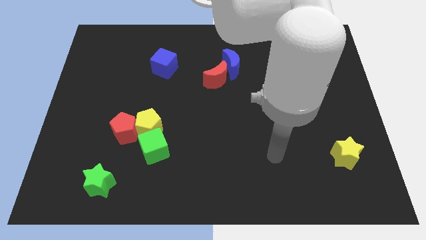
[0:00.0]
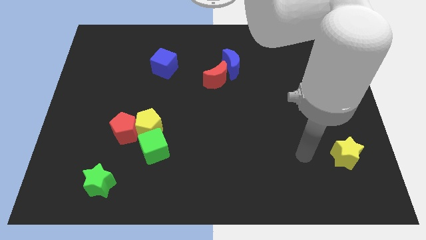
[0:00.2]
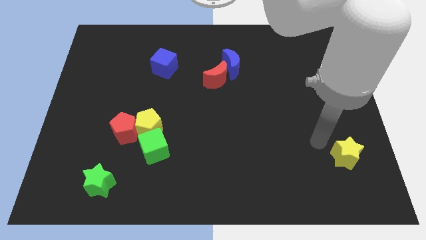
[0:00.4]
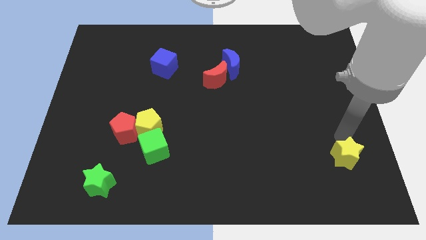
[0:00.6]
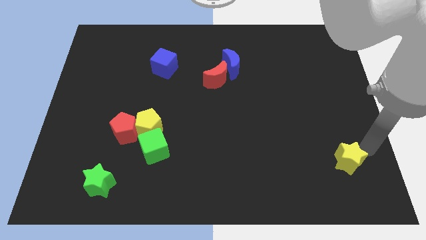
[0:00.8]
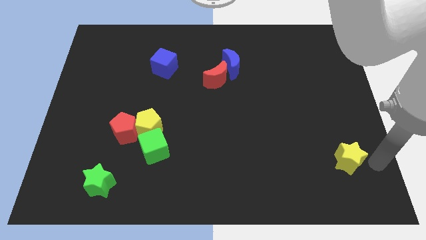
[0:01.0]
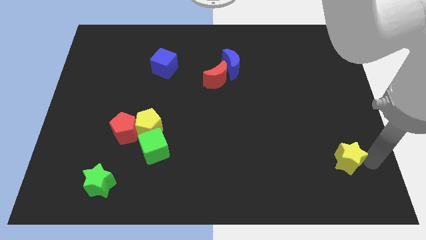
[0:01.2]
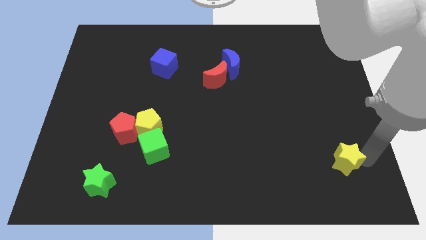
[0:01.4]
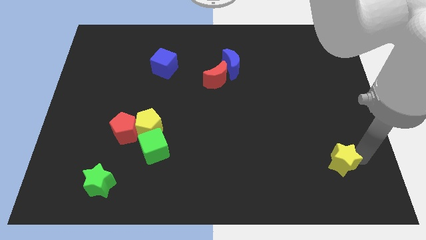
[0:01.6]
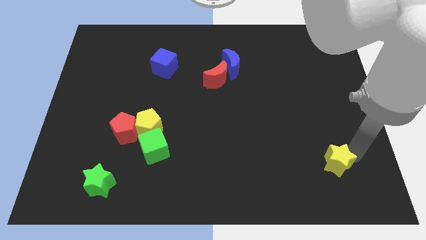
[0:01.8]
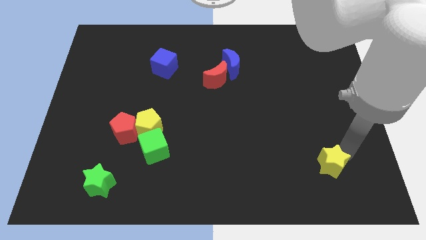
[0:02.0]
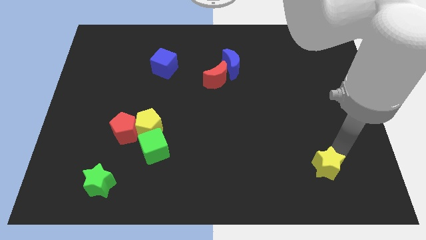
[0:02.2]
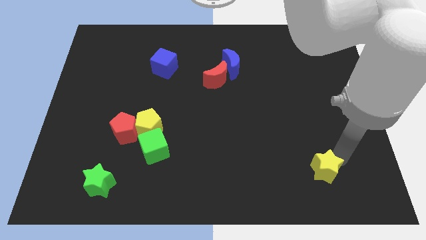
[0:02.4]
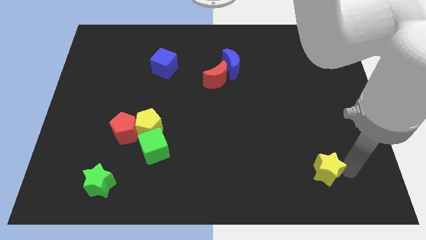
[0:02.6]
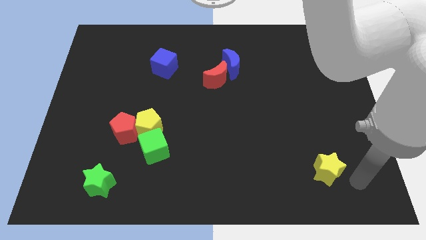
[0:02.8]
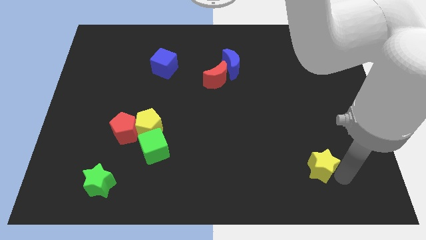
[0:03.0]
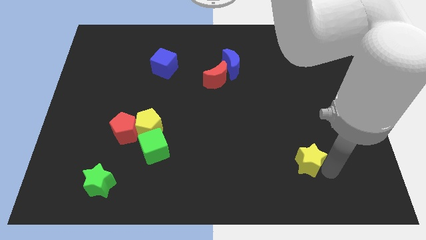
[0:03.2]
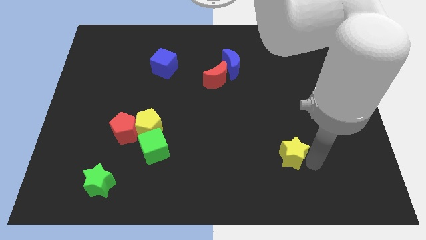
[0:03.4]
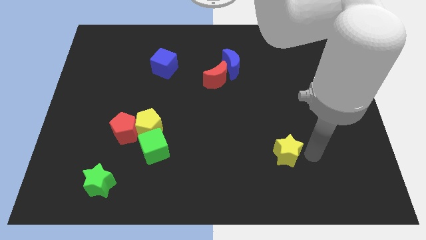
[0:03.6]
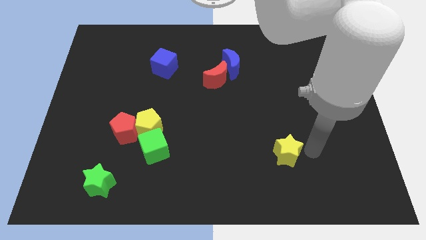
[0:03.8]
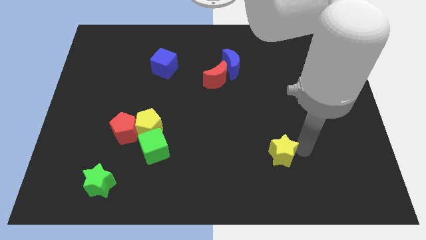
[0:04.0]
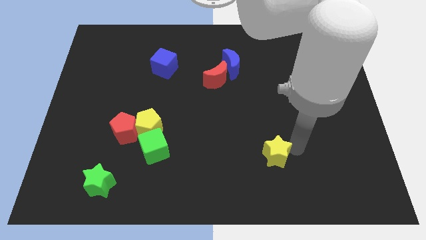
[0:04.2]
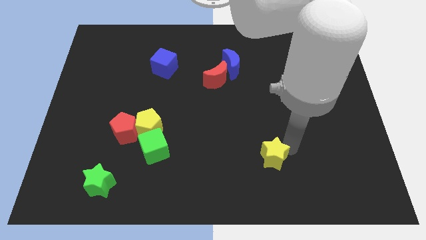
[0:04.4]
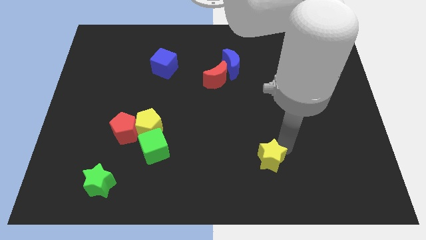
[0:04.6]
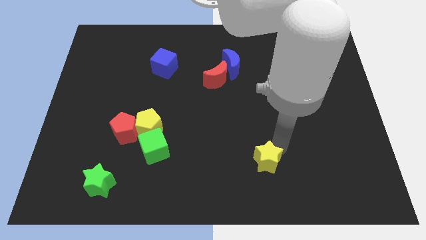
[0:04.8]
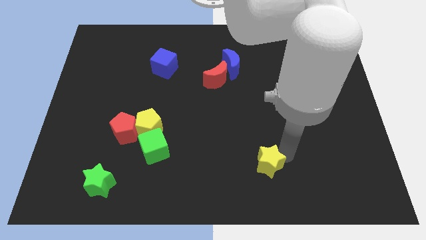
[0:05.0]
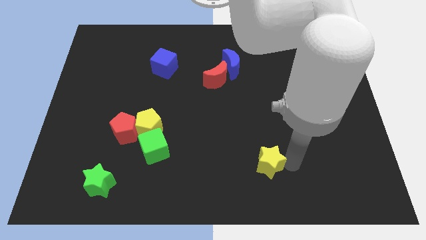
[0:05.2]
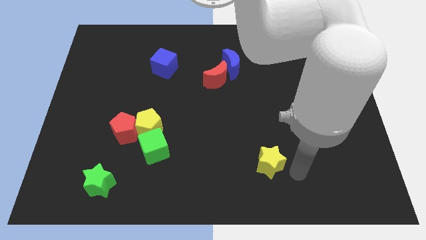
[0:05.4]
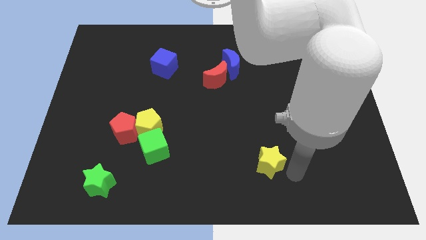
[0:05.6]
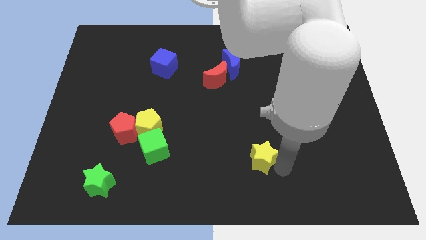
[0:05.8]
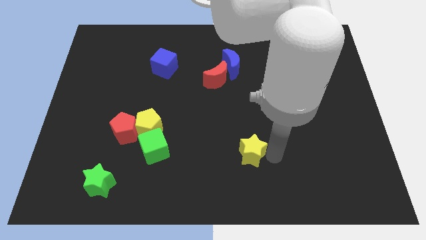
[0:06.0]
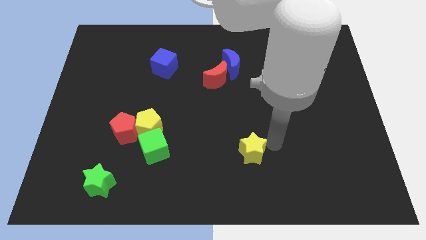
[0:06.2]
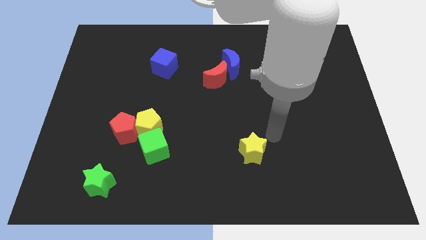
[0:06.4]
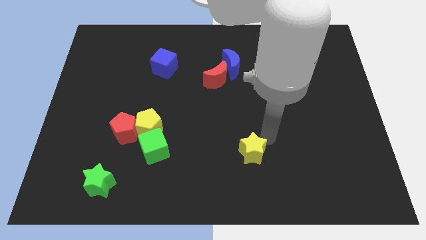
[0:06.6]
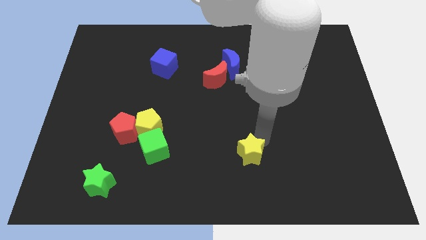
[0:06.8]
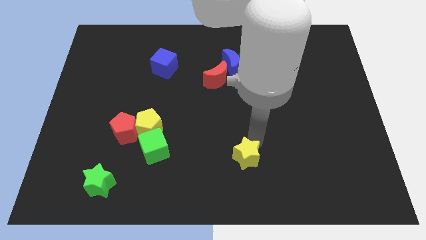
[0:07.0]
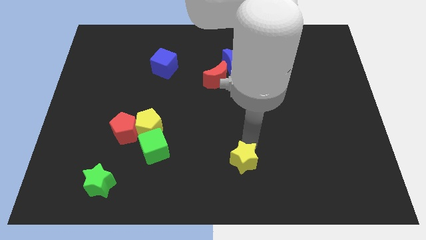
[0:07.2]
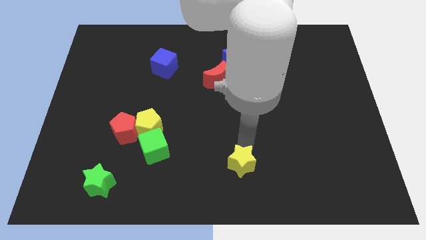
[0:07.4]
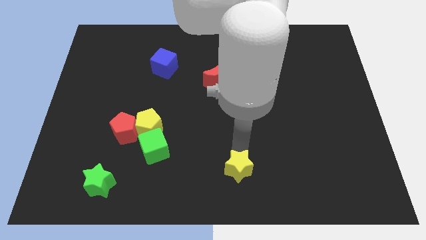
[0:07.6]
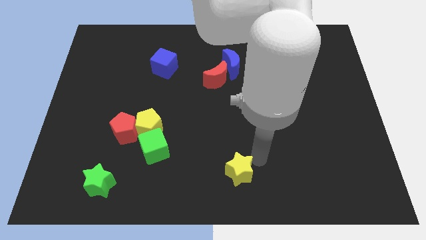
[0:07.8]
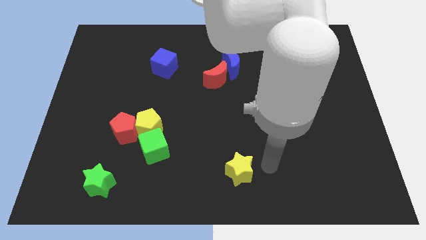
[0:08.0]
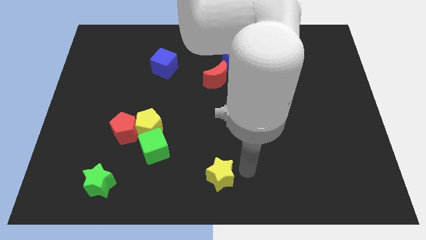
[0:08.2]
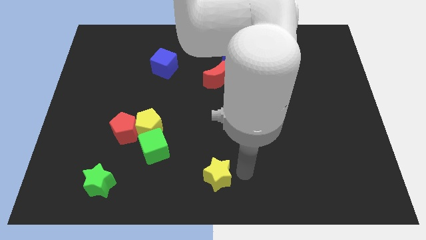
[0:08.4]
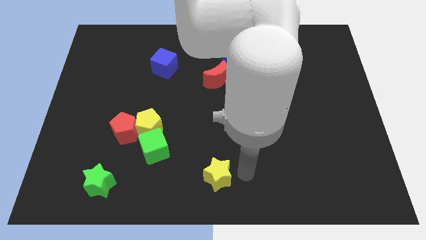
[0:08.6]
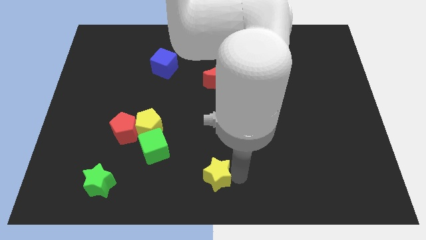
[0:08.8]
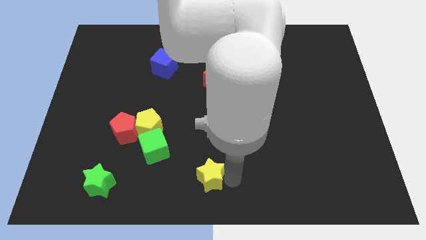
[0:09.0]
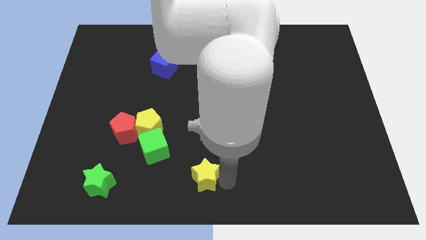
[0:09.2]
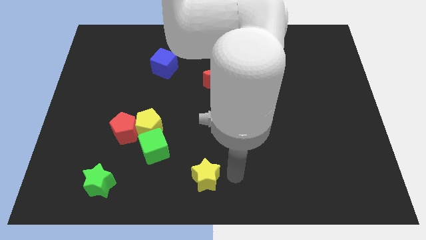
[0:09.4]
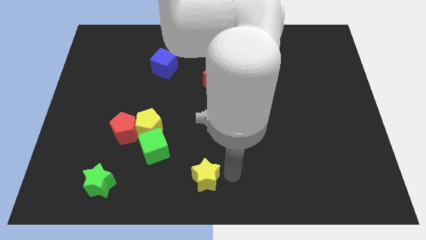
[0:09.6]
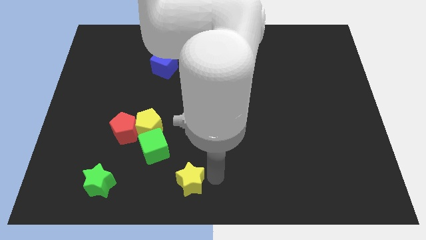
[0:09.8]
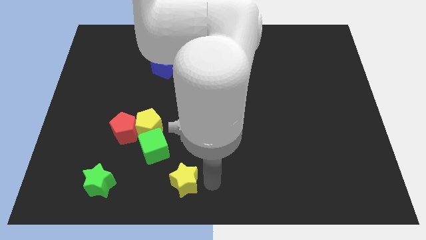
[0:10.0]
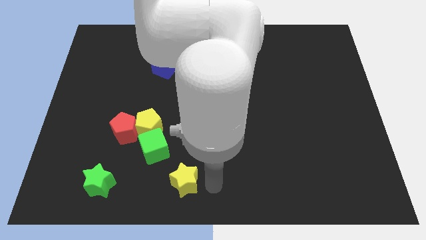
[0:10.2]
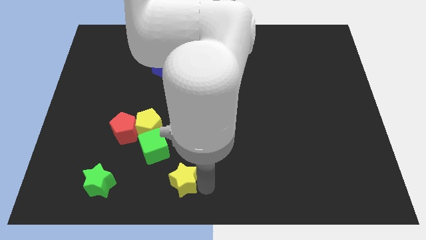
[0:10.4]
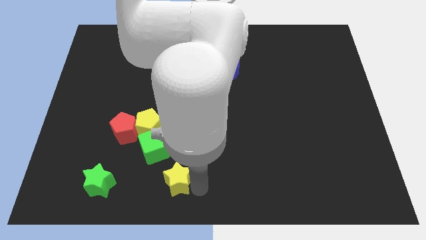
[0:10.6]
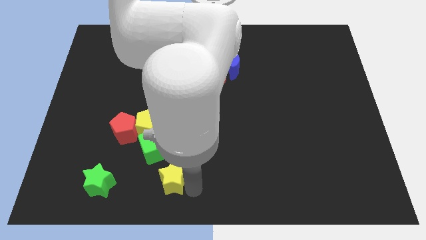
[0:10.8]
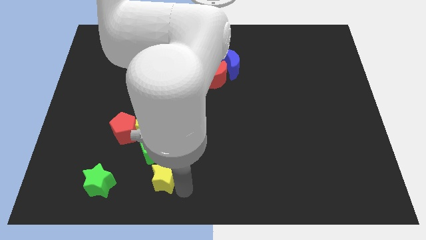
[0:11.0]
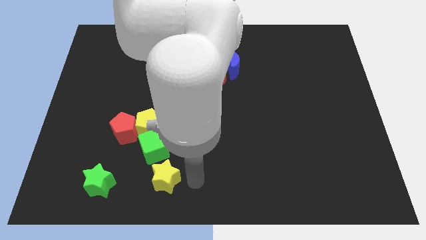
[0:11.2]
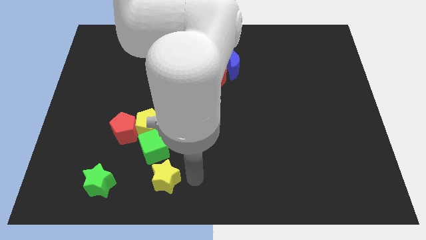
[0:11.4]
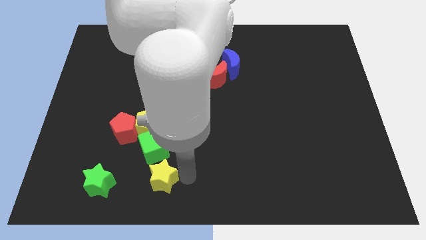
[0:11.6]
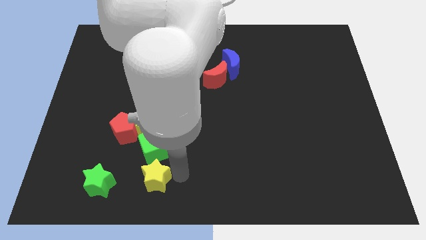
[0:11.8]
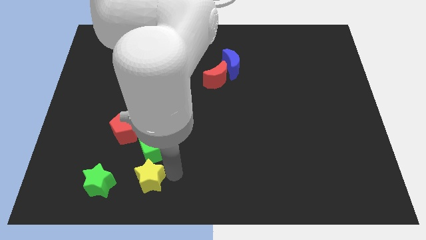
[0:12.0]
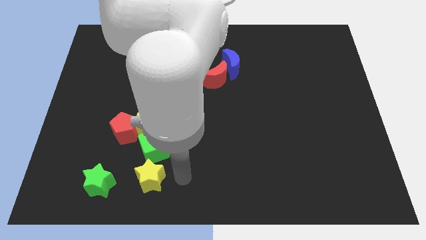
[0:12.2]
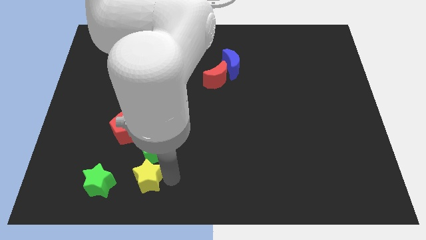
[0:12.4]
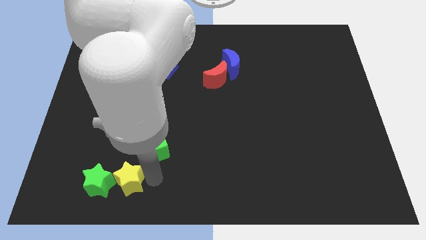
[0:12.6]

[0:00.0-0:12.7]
push the yellow star to the green star

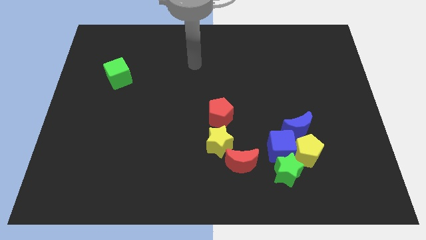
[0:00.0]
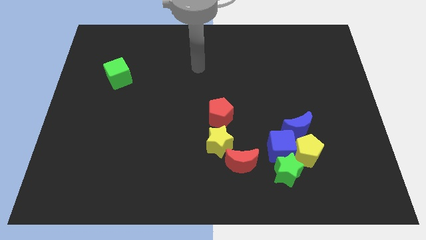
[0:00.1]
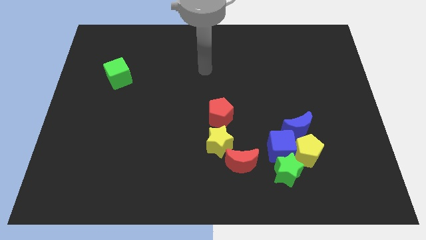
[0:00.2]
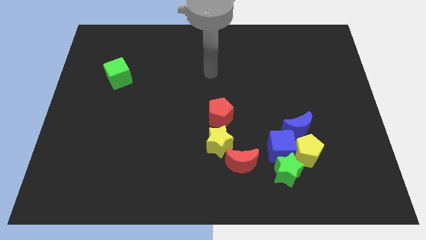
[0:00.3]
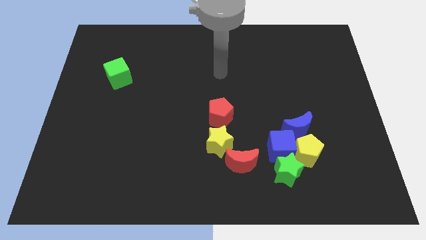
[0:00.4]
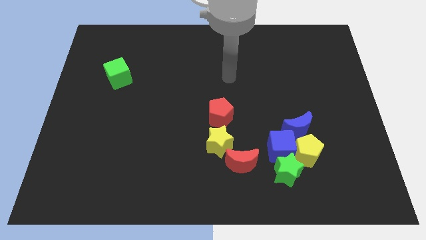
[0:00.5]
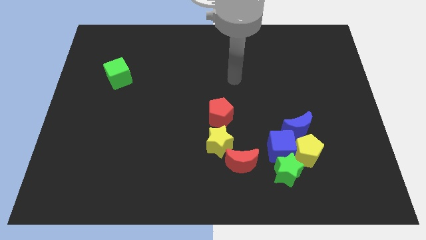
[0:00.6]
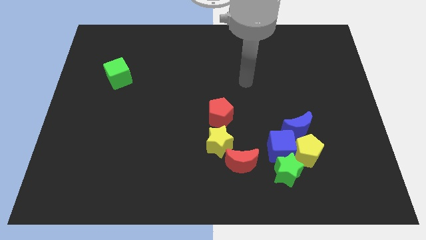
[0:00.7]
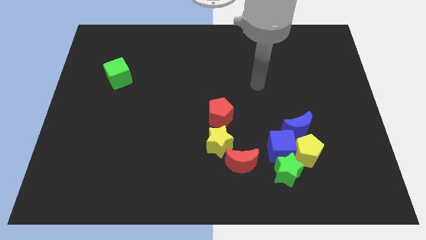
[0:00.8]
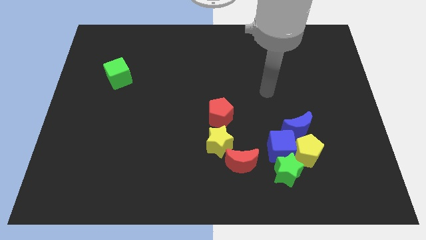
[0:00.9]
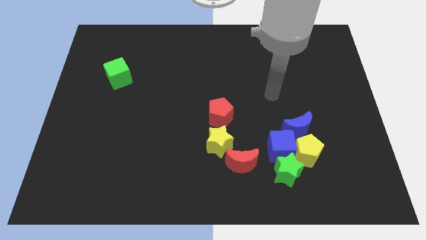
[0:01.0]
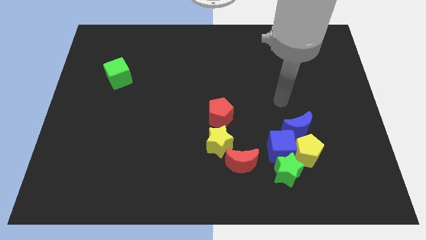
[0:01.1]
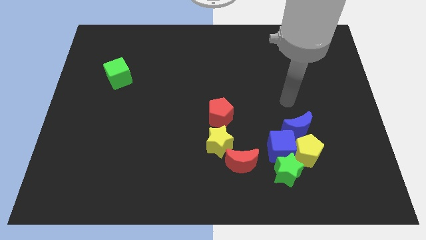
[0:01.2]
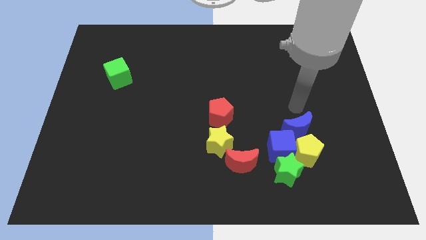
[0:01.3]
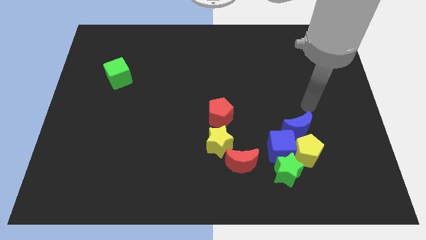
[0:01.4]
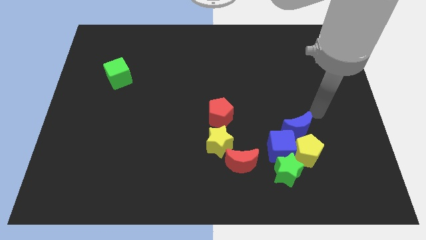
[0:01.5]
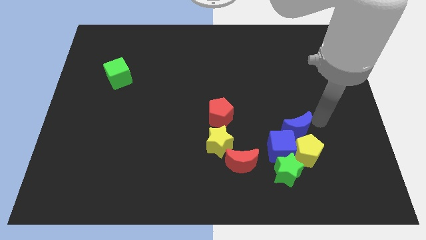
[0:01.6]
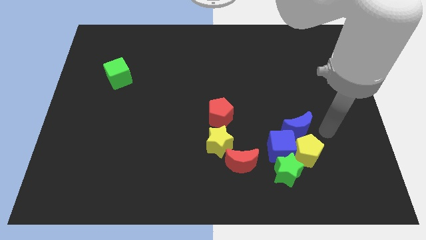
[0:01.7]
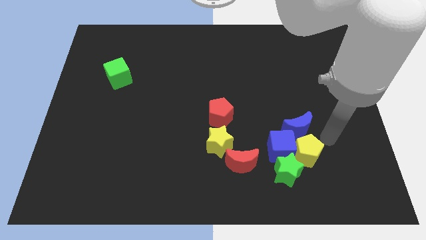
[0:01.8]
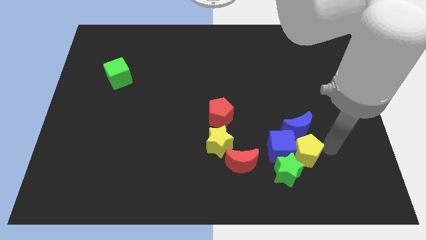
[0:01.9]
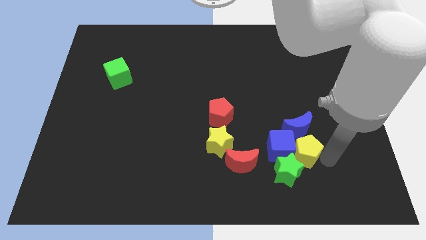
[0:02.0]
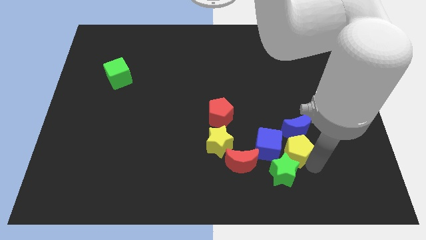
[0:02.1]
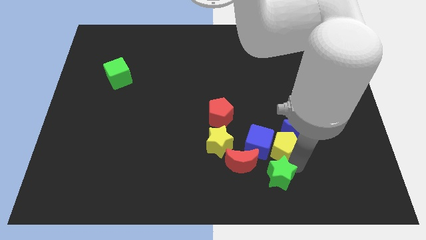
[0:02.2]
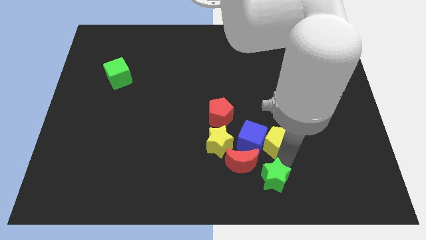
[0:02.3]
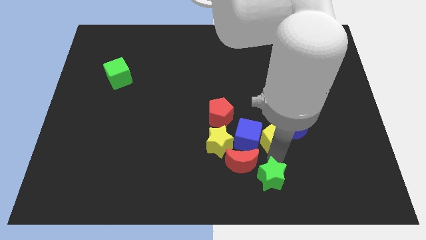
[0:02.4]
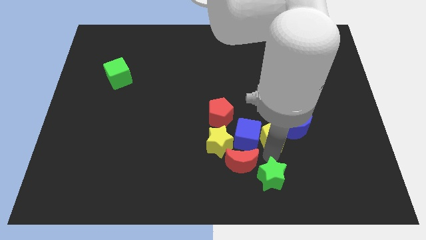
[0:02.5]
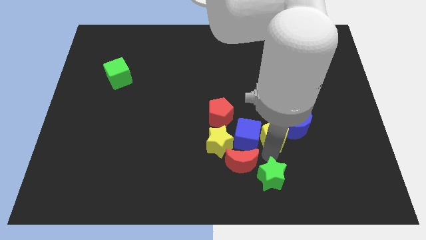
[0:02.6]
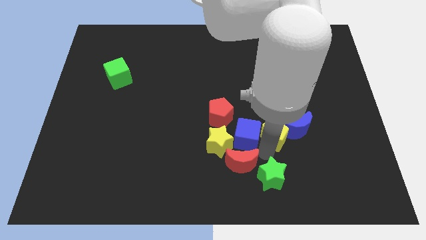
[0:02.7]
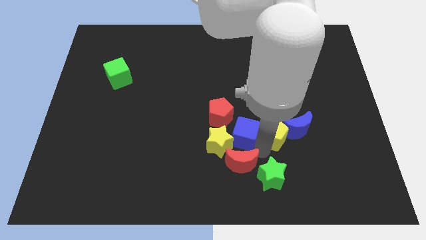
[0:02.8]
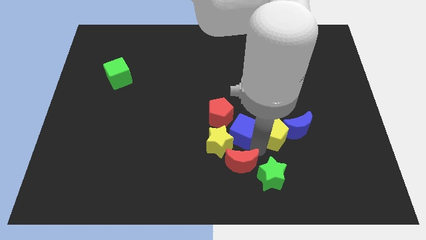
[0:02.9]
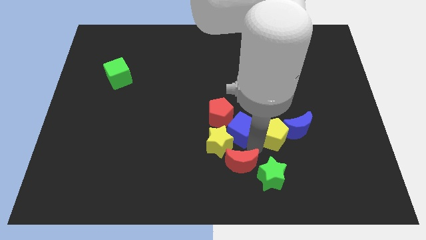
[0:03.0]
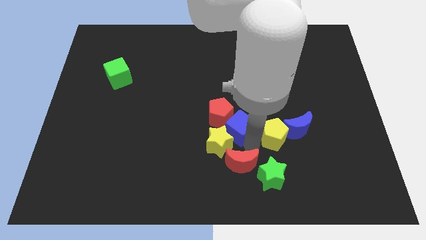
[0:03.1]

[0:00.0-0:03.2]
push the blue cube towards the red pentagon
